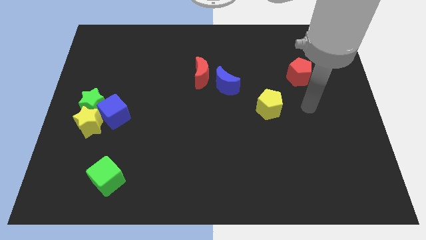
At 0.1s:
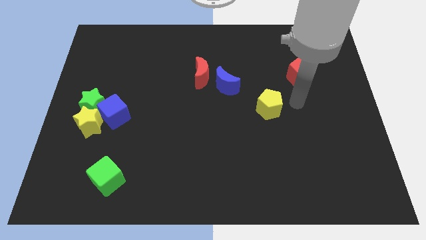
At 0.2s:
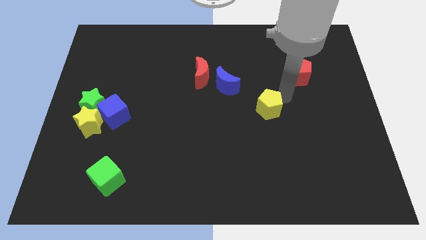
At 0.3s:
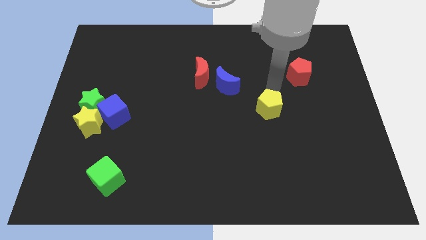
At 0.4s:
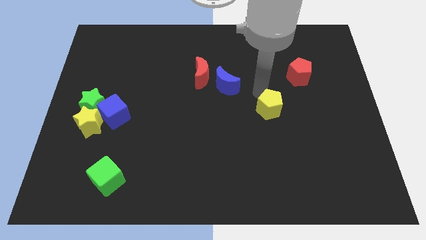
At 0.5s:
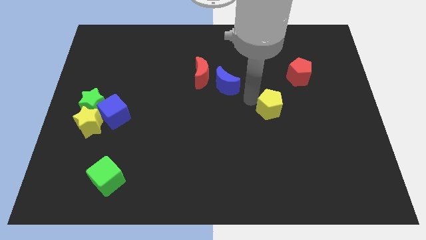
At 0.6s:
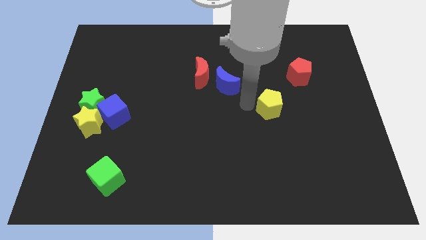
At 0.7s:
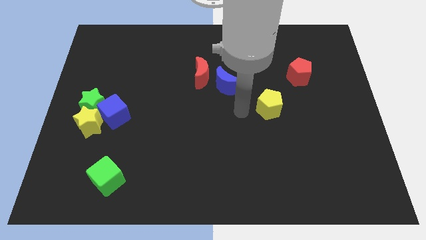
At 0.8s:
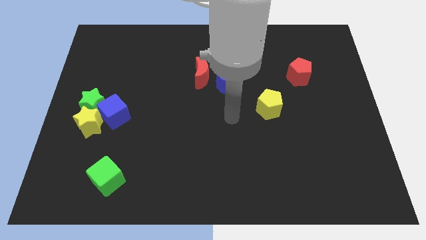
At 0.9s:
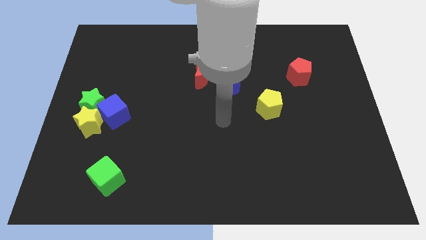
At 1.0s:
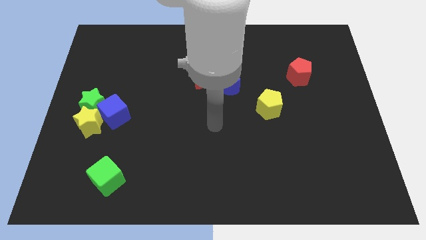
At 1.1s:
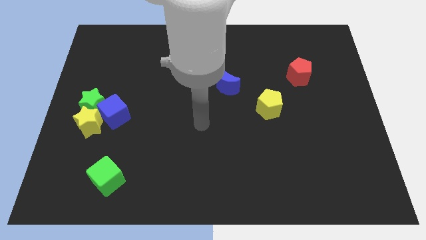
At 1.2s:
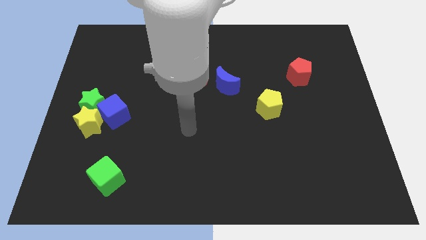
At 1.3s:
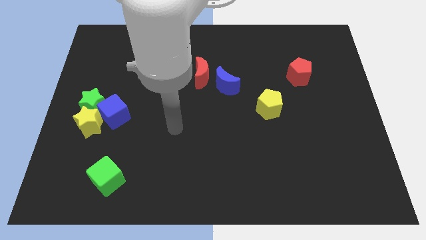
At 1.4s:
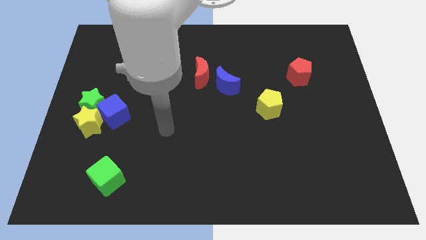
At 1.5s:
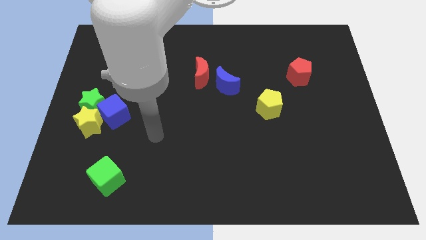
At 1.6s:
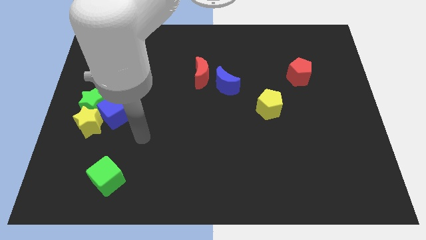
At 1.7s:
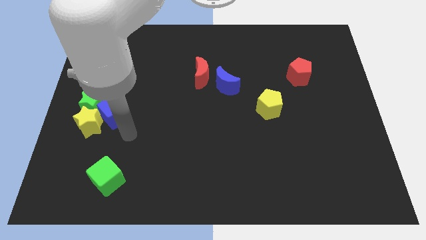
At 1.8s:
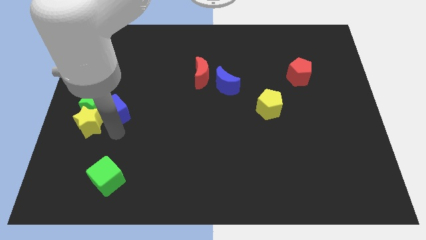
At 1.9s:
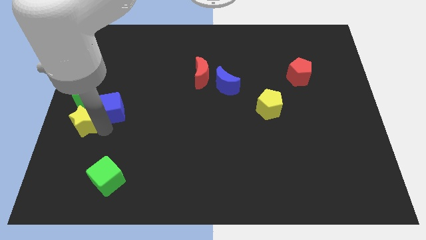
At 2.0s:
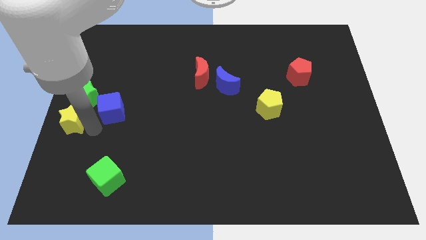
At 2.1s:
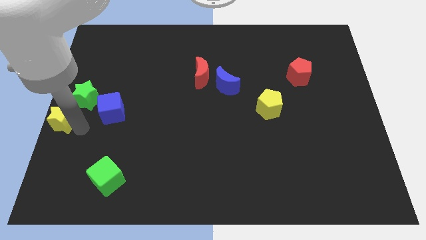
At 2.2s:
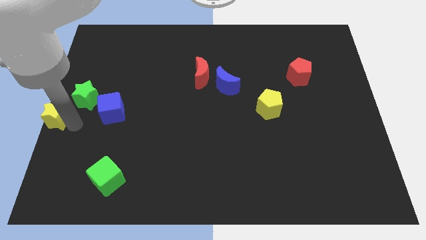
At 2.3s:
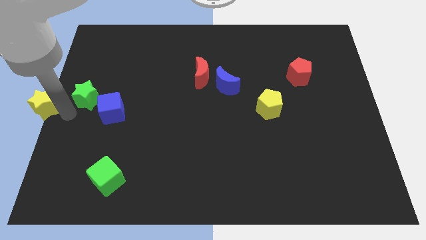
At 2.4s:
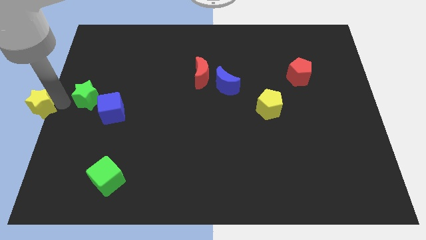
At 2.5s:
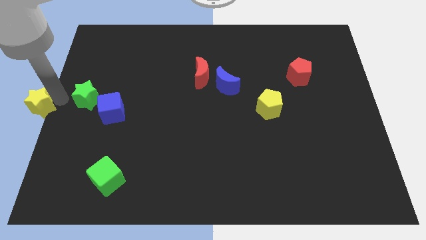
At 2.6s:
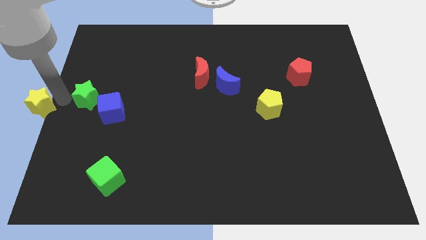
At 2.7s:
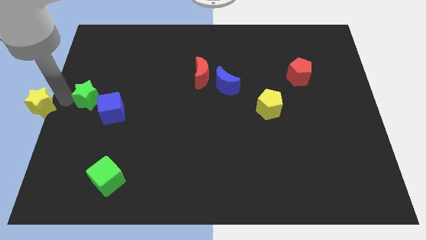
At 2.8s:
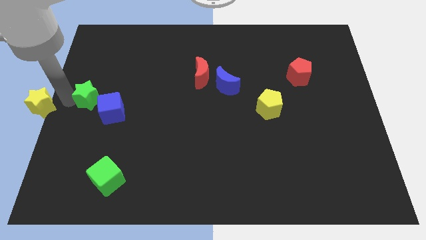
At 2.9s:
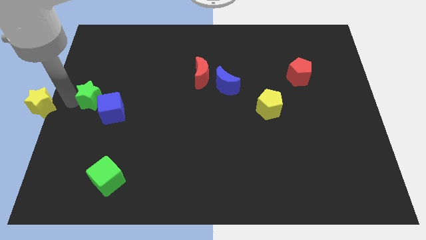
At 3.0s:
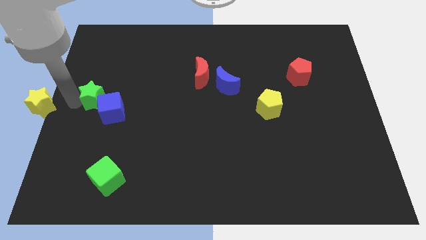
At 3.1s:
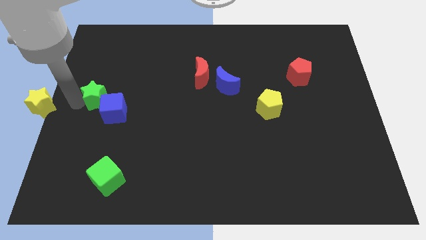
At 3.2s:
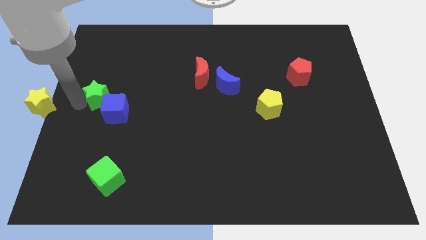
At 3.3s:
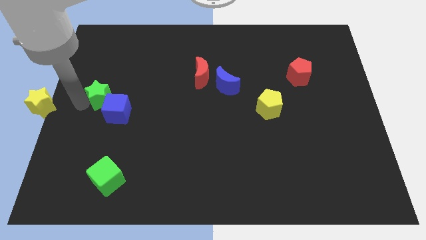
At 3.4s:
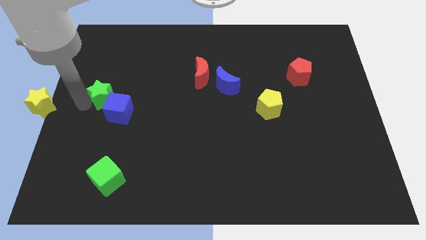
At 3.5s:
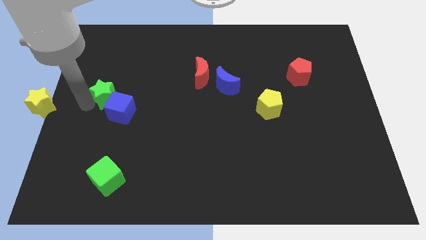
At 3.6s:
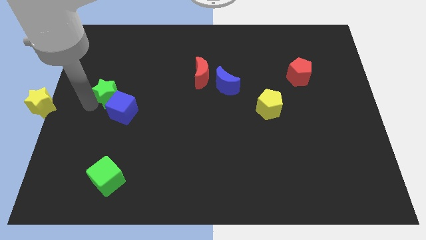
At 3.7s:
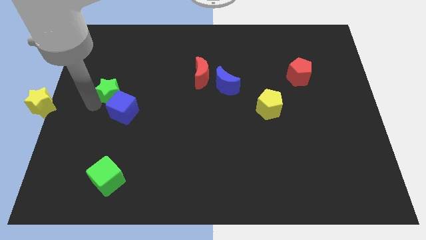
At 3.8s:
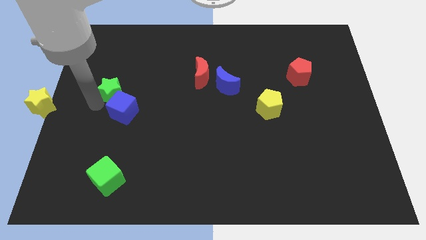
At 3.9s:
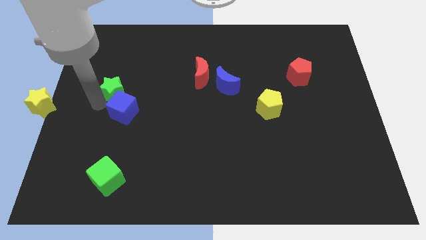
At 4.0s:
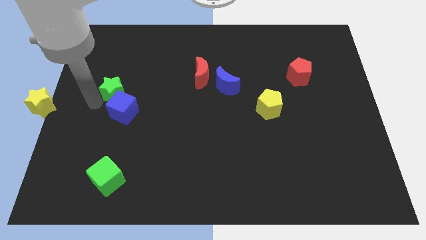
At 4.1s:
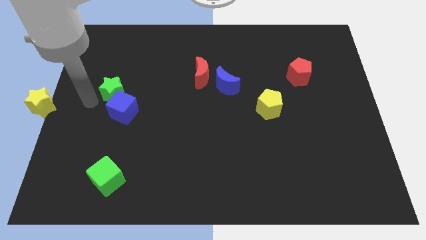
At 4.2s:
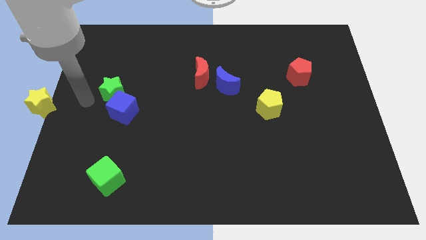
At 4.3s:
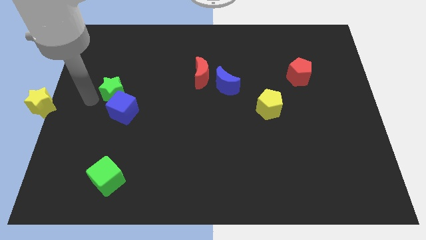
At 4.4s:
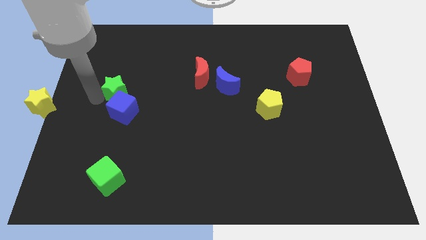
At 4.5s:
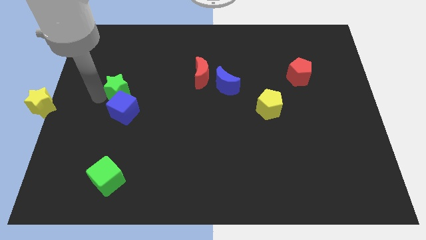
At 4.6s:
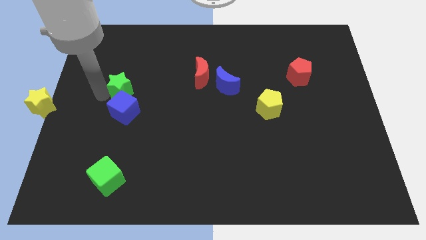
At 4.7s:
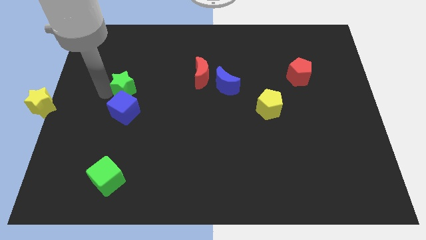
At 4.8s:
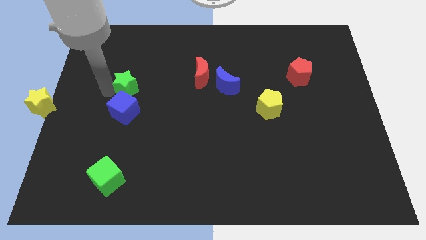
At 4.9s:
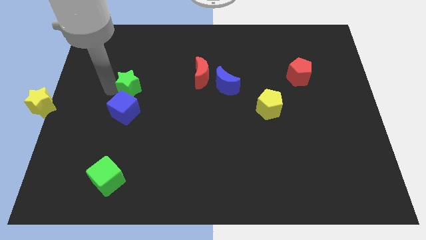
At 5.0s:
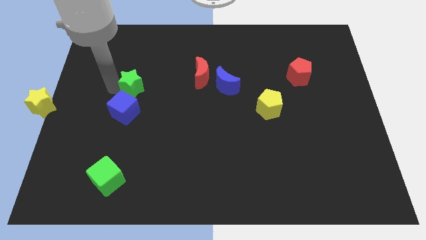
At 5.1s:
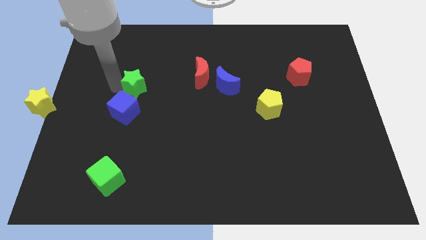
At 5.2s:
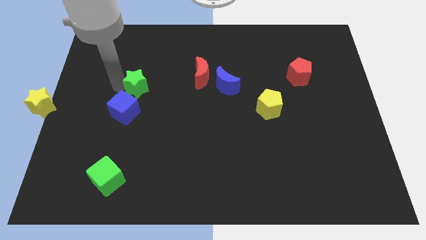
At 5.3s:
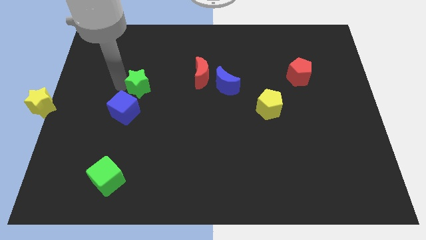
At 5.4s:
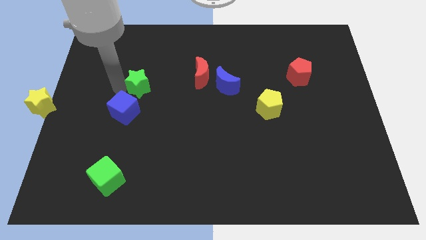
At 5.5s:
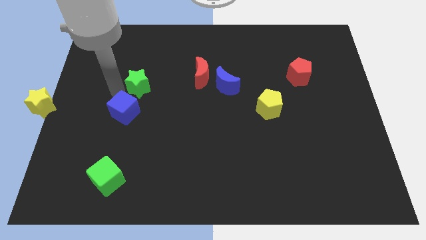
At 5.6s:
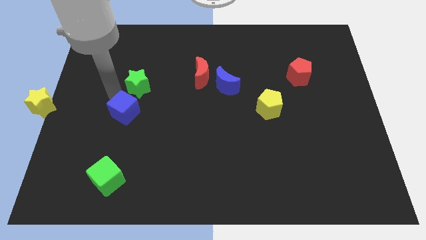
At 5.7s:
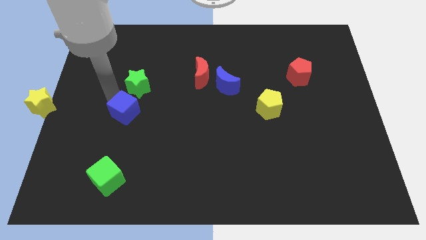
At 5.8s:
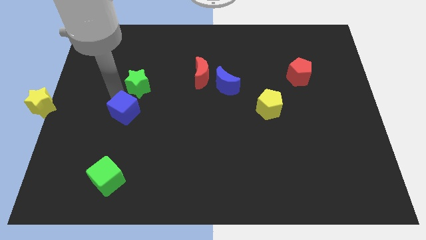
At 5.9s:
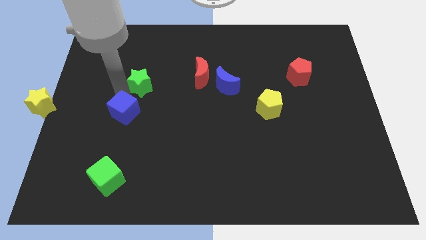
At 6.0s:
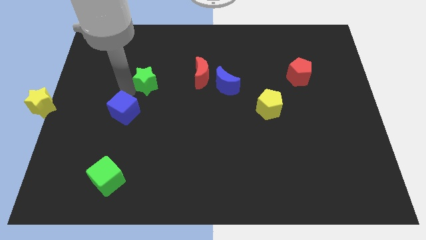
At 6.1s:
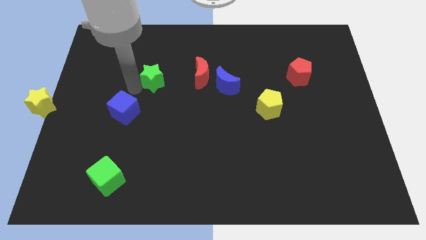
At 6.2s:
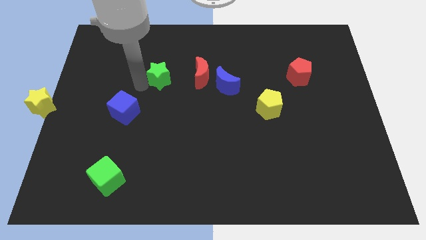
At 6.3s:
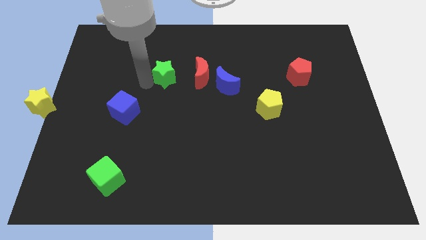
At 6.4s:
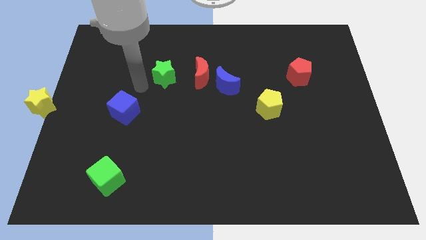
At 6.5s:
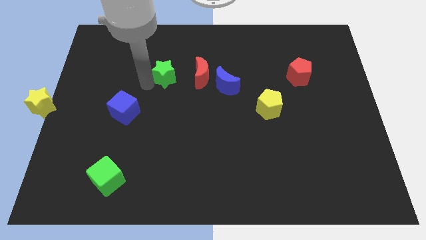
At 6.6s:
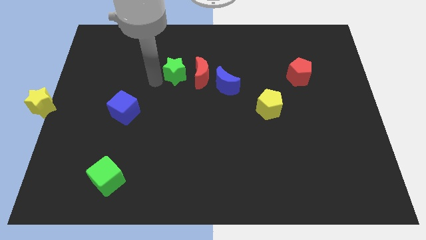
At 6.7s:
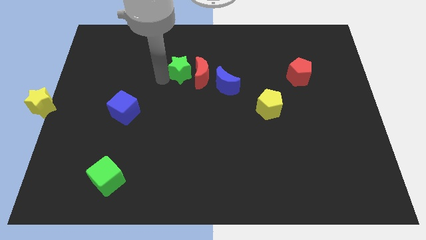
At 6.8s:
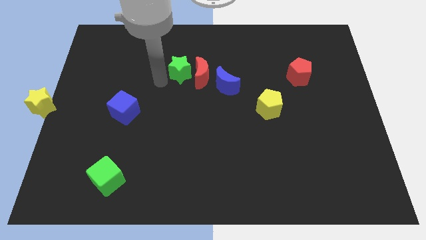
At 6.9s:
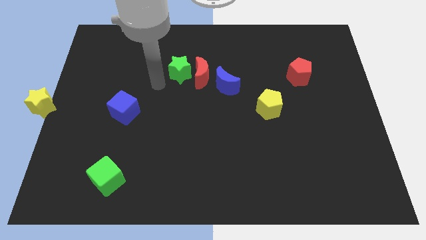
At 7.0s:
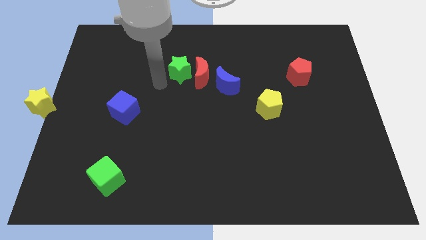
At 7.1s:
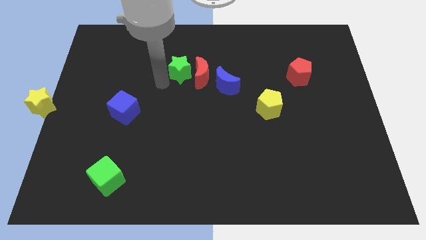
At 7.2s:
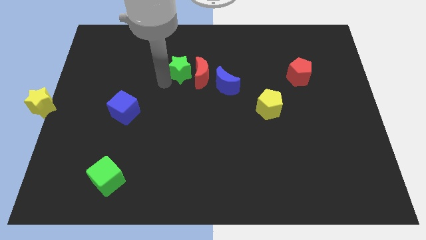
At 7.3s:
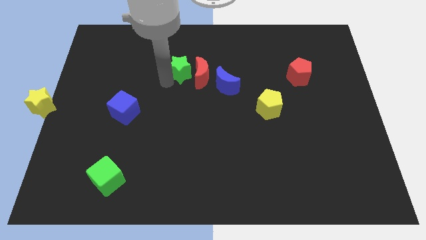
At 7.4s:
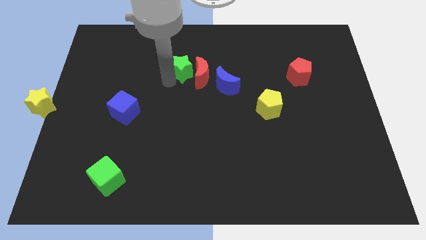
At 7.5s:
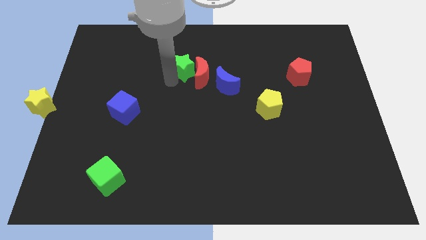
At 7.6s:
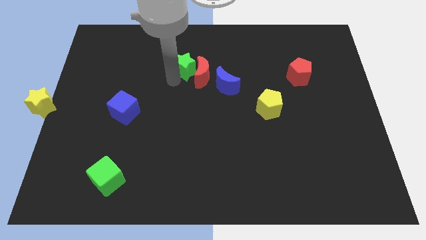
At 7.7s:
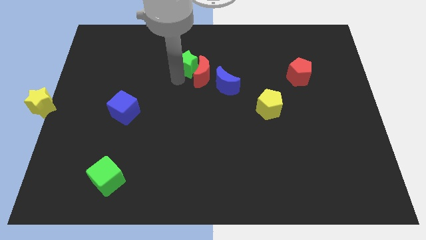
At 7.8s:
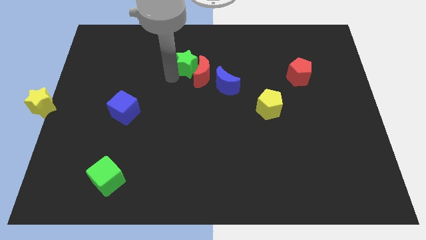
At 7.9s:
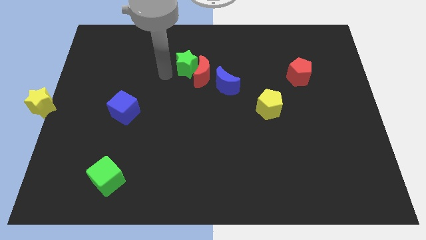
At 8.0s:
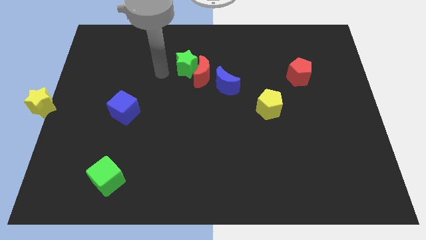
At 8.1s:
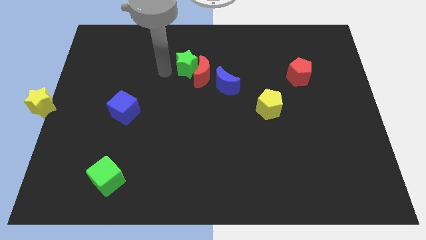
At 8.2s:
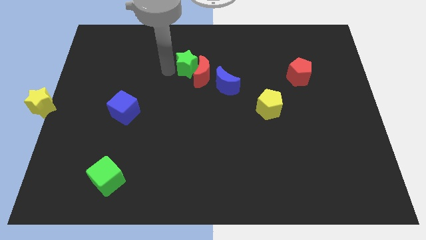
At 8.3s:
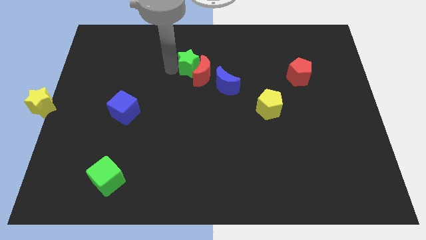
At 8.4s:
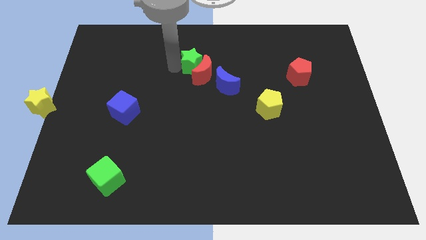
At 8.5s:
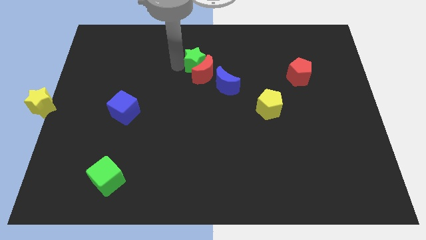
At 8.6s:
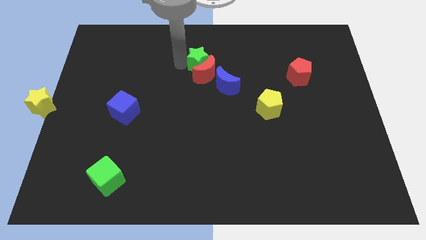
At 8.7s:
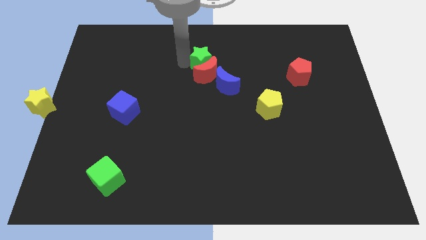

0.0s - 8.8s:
push the green star diagonally up and to the right of the red moon
